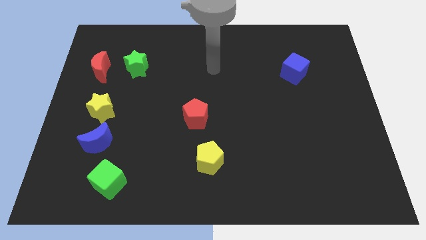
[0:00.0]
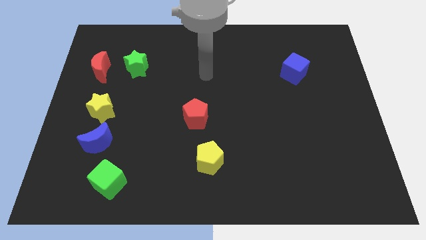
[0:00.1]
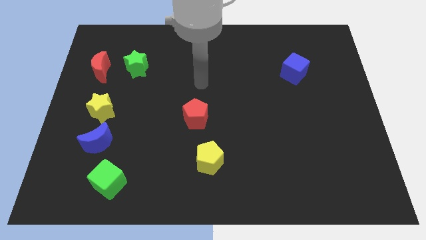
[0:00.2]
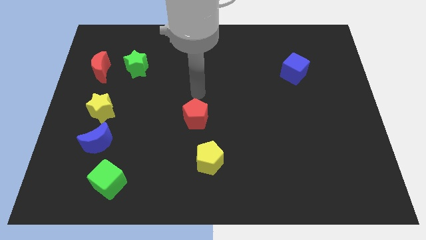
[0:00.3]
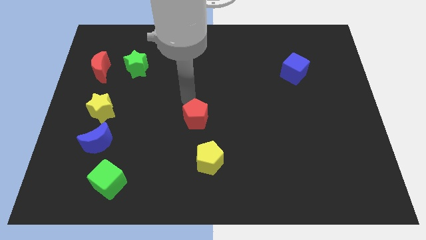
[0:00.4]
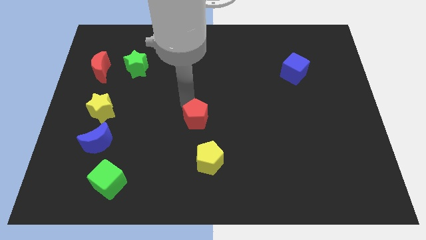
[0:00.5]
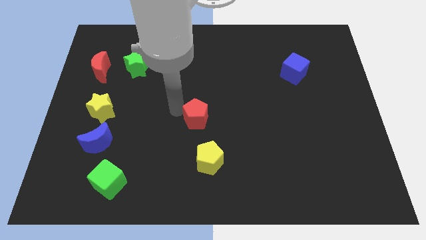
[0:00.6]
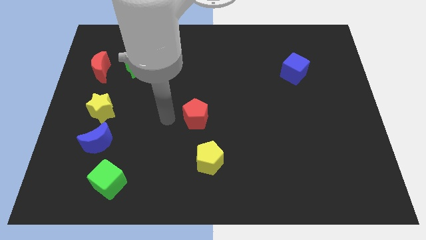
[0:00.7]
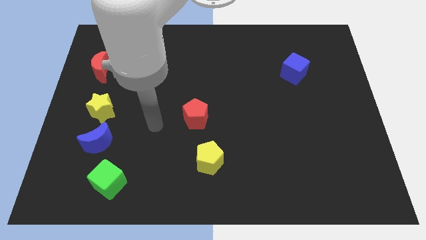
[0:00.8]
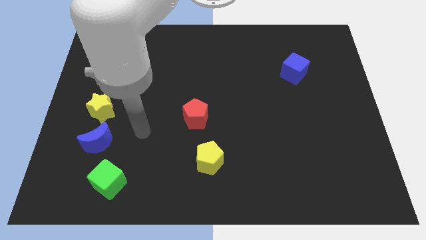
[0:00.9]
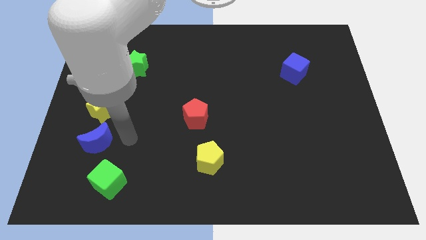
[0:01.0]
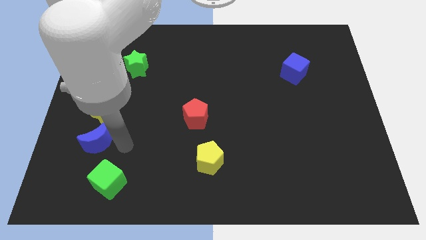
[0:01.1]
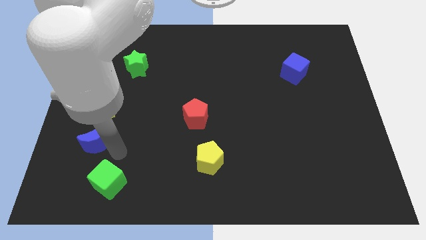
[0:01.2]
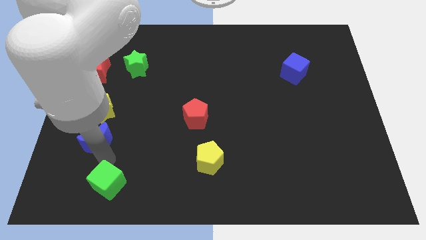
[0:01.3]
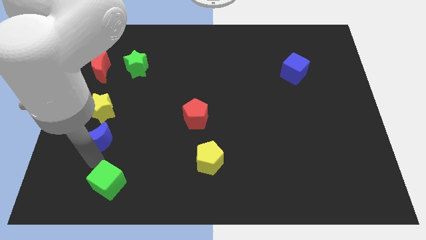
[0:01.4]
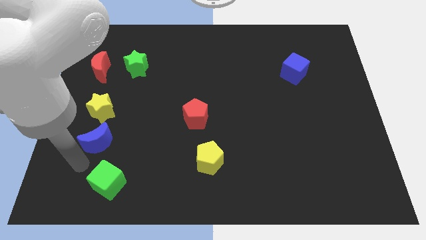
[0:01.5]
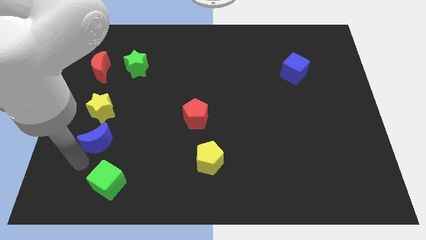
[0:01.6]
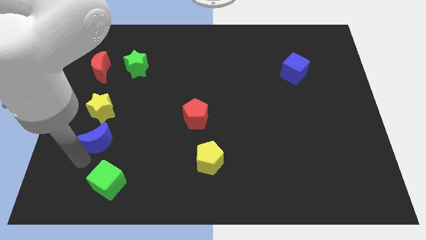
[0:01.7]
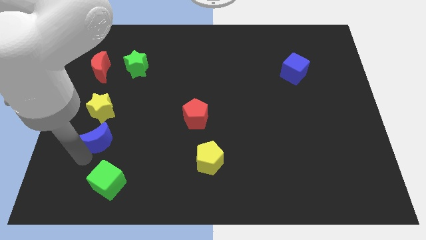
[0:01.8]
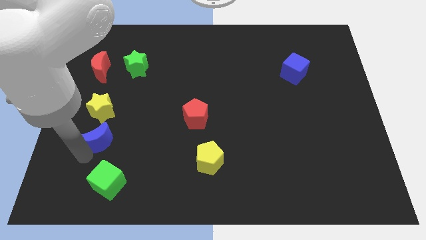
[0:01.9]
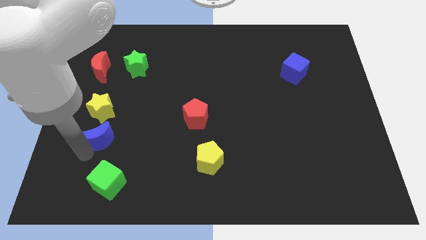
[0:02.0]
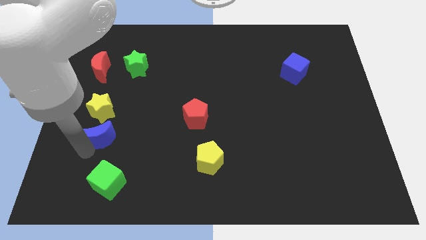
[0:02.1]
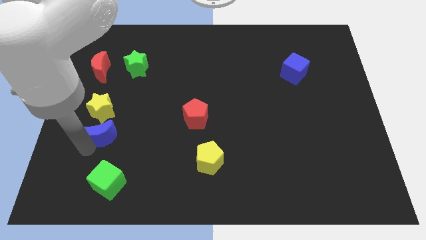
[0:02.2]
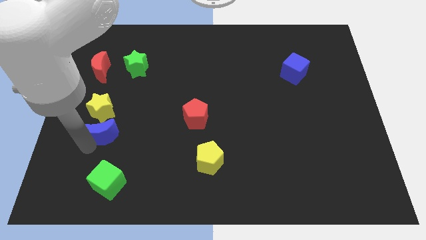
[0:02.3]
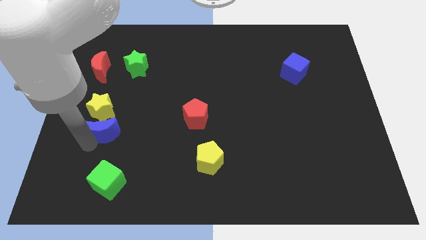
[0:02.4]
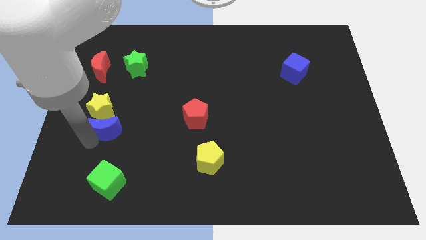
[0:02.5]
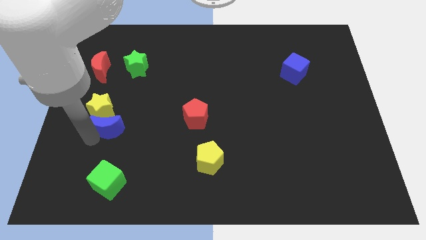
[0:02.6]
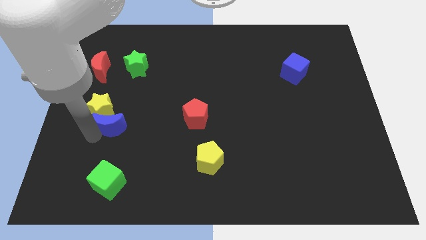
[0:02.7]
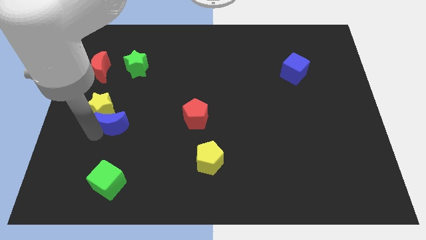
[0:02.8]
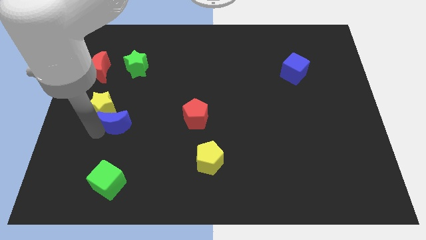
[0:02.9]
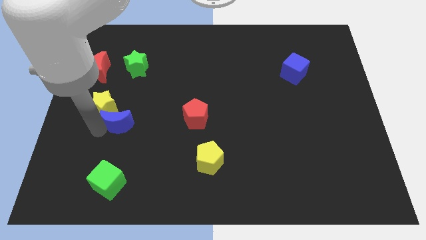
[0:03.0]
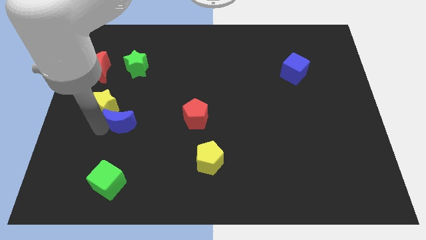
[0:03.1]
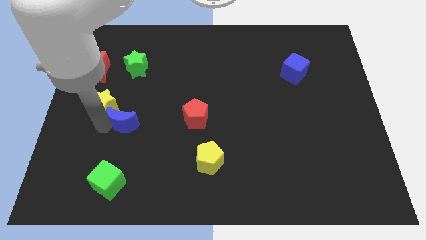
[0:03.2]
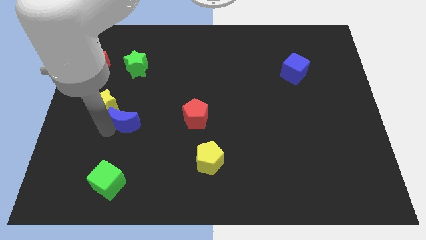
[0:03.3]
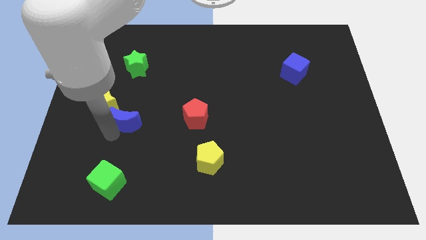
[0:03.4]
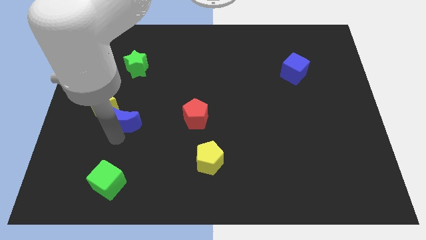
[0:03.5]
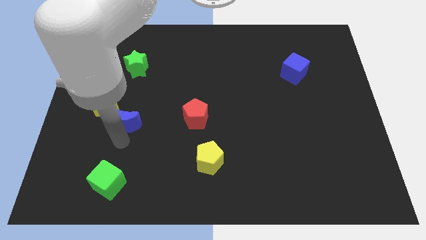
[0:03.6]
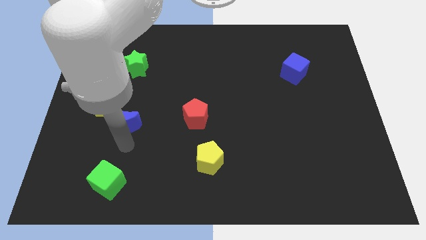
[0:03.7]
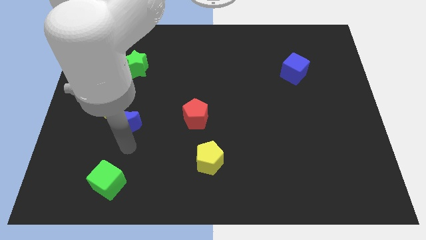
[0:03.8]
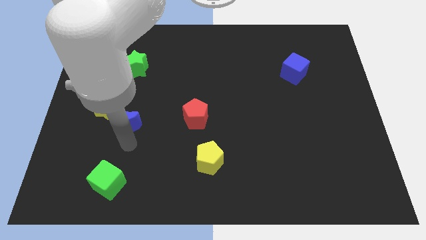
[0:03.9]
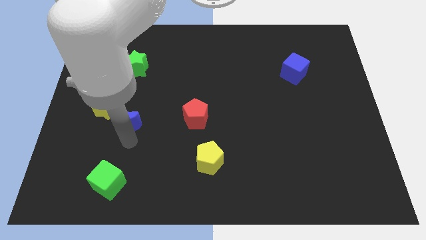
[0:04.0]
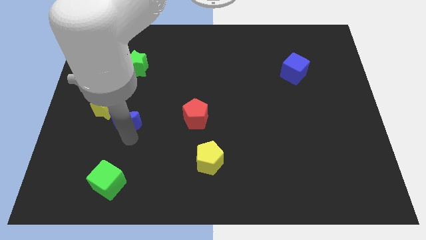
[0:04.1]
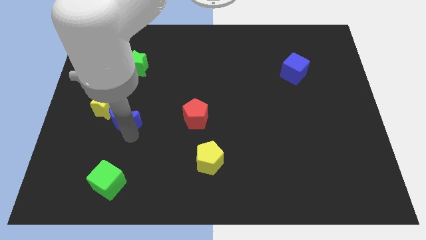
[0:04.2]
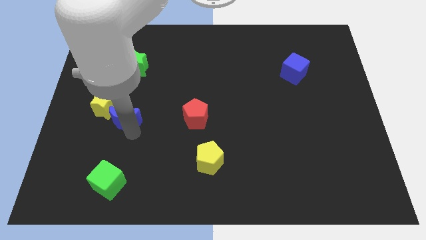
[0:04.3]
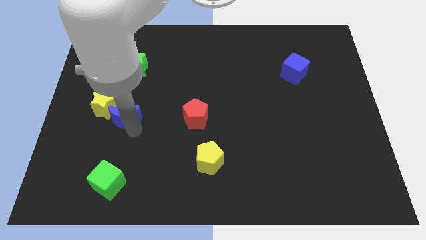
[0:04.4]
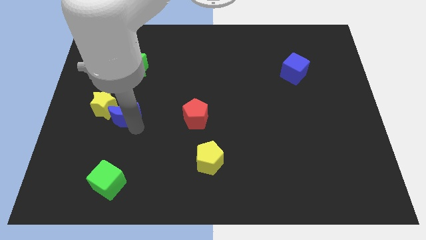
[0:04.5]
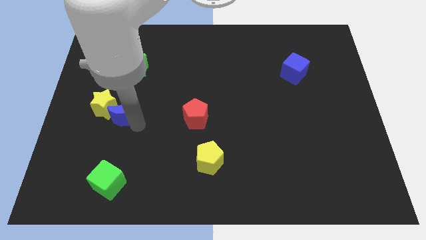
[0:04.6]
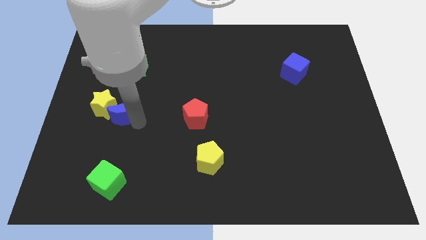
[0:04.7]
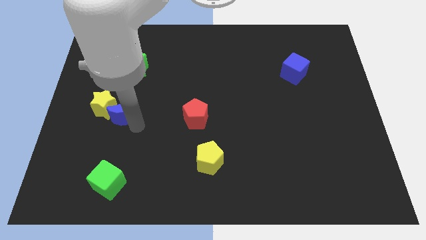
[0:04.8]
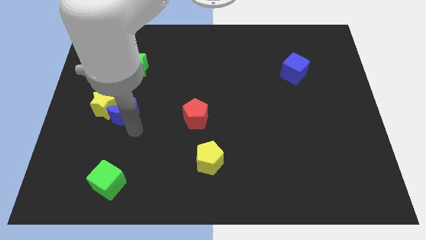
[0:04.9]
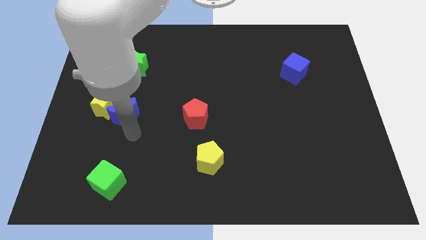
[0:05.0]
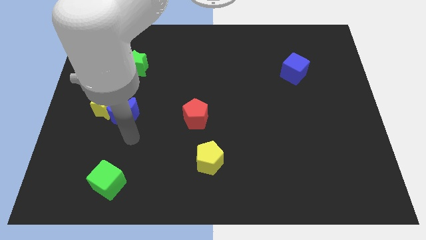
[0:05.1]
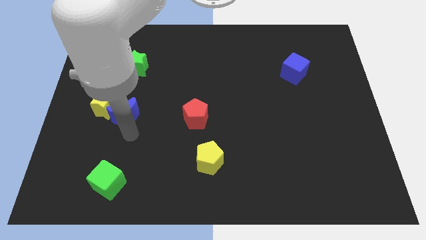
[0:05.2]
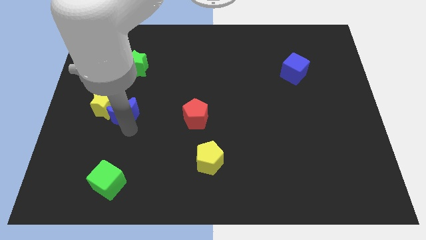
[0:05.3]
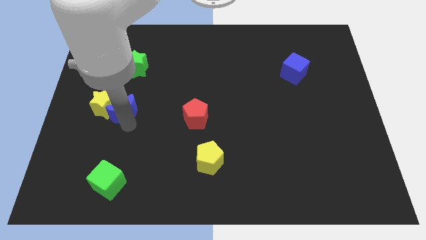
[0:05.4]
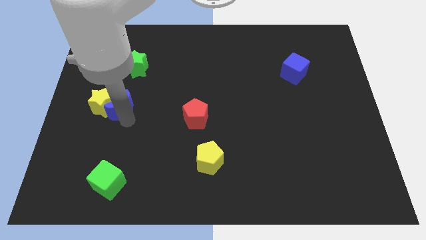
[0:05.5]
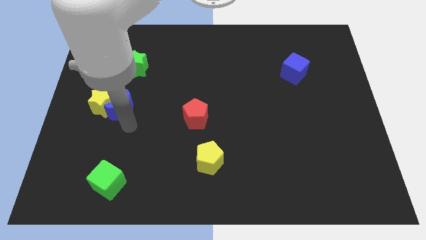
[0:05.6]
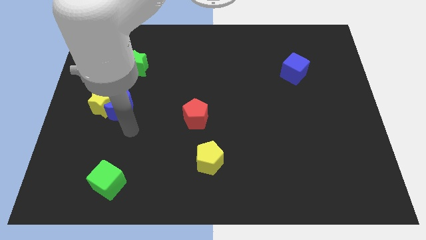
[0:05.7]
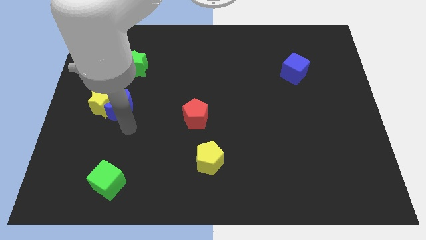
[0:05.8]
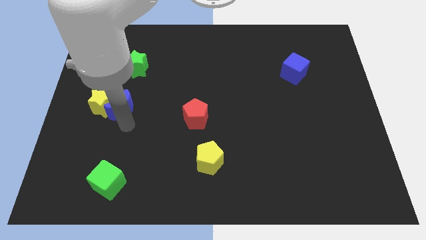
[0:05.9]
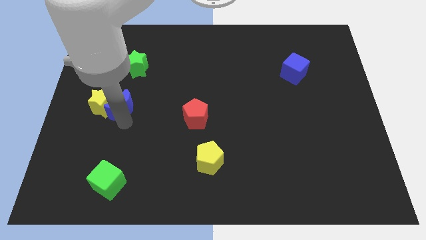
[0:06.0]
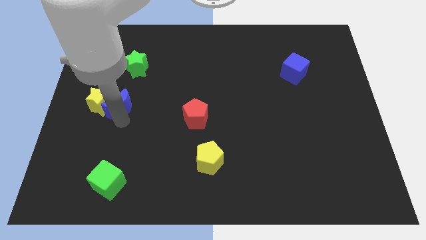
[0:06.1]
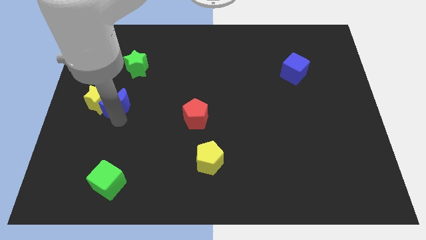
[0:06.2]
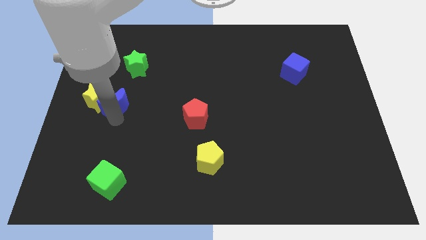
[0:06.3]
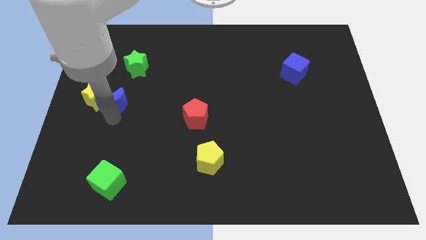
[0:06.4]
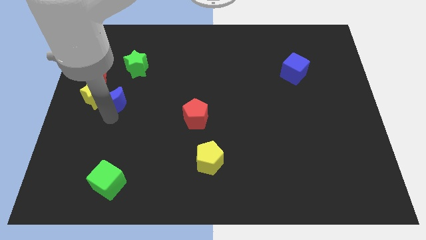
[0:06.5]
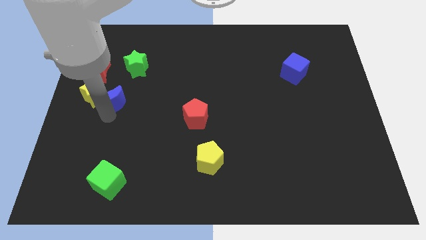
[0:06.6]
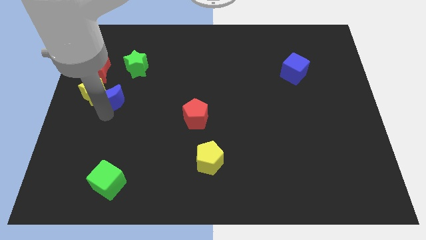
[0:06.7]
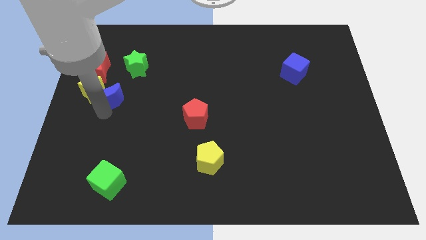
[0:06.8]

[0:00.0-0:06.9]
put the blue moon diagonally down and to the left of the green star

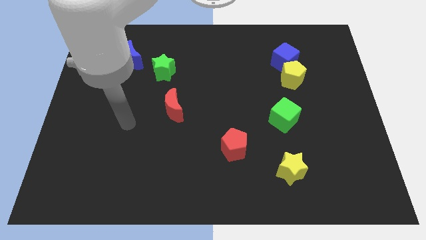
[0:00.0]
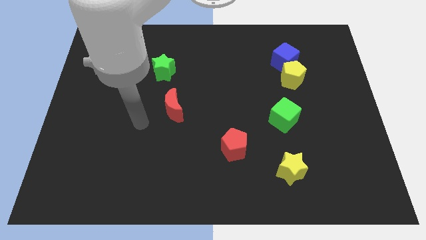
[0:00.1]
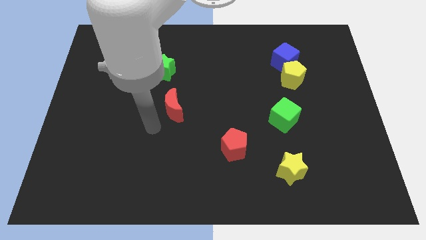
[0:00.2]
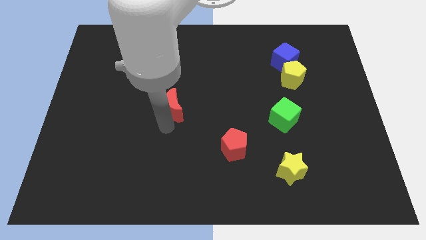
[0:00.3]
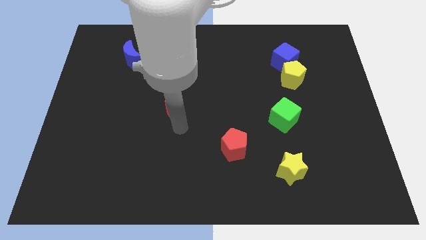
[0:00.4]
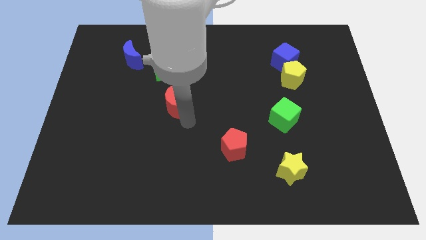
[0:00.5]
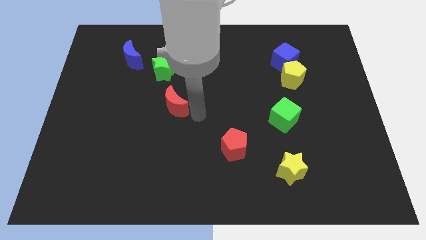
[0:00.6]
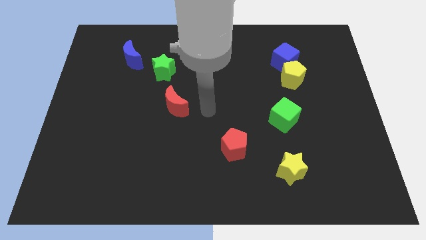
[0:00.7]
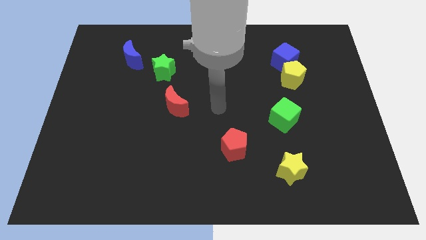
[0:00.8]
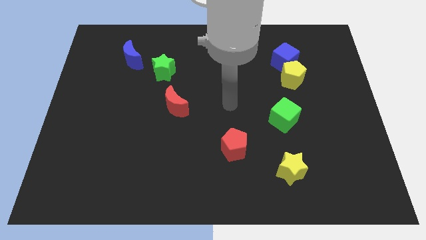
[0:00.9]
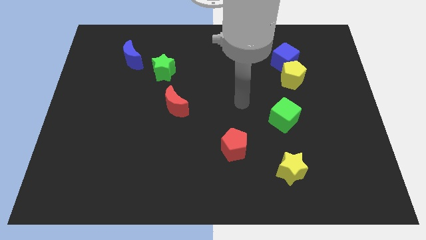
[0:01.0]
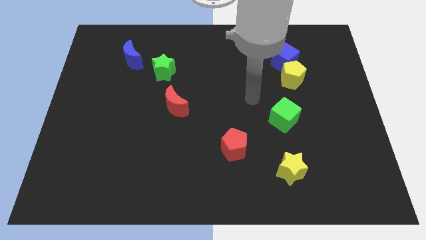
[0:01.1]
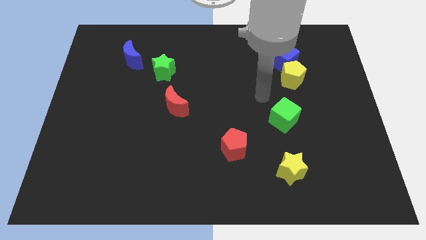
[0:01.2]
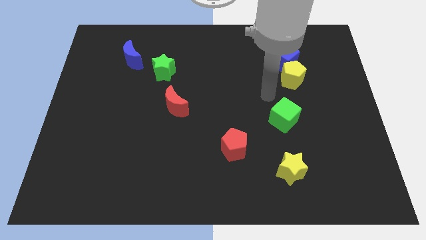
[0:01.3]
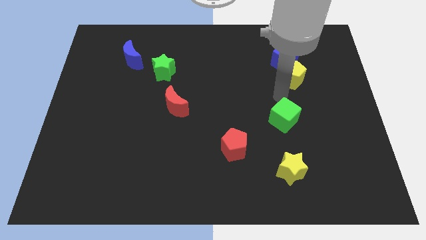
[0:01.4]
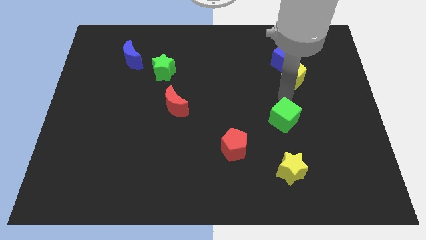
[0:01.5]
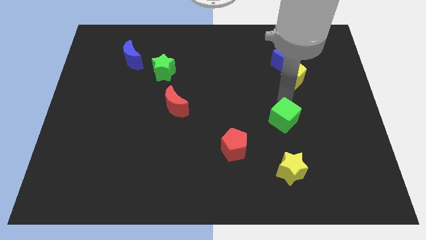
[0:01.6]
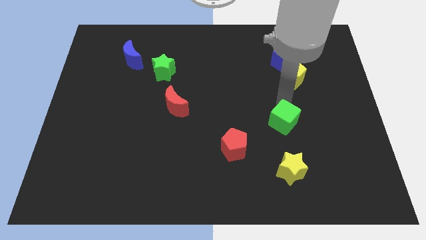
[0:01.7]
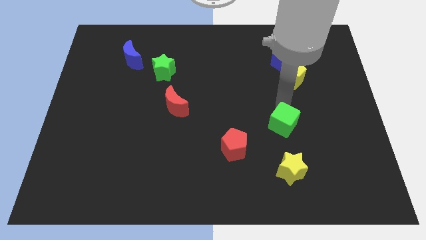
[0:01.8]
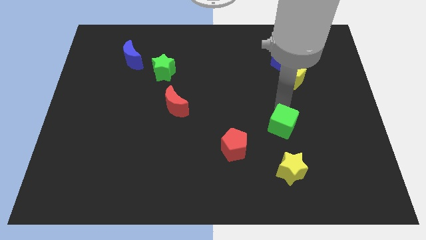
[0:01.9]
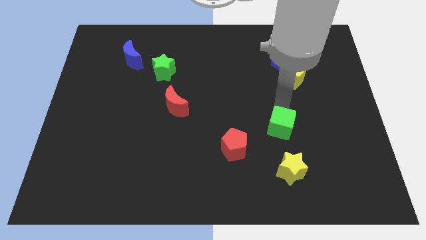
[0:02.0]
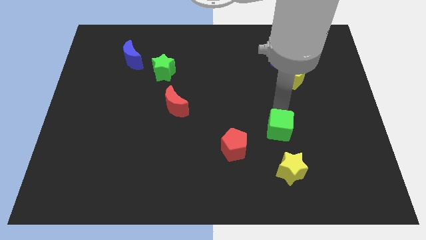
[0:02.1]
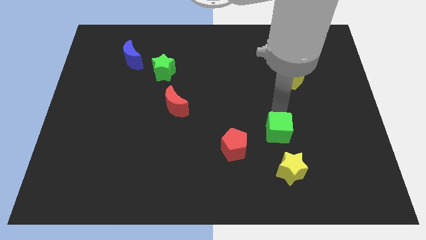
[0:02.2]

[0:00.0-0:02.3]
move the green cube to the right side of the red pentagon
